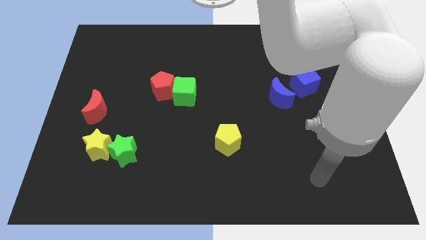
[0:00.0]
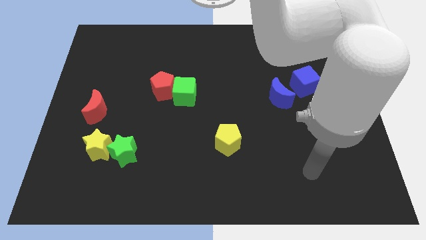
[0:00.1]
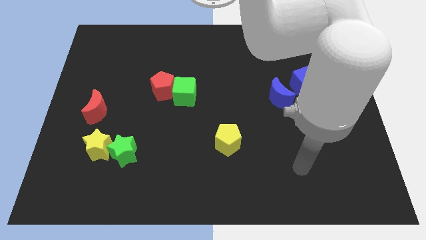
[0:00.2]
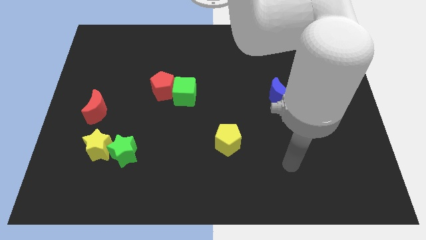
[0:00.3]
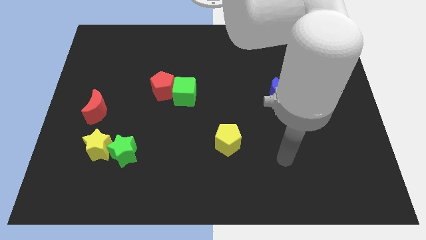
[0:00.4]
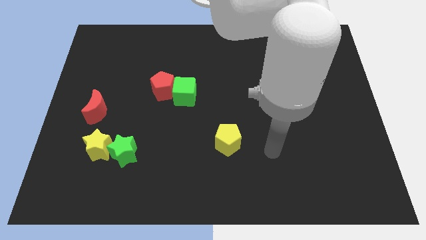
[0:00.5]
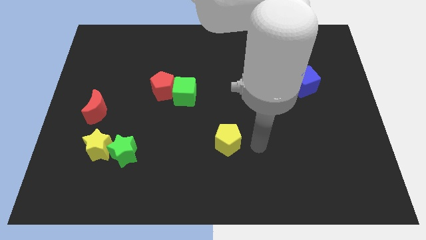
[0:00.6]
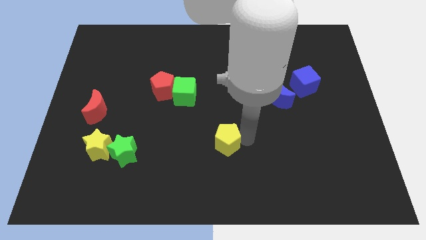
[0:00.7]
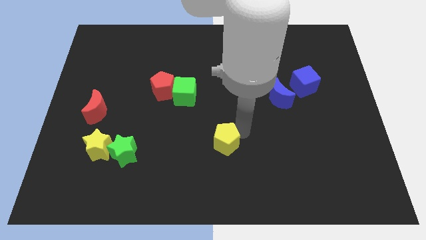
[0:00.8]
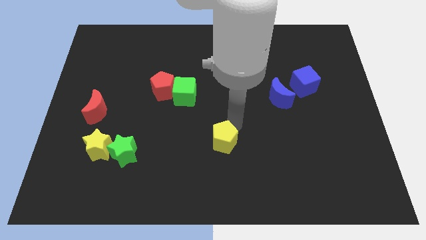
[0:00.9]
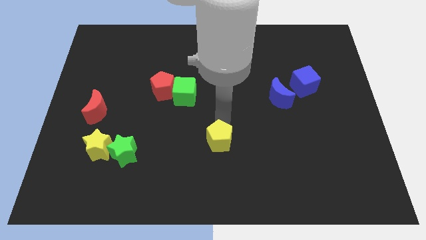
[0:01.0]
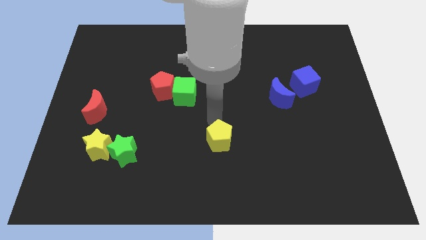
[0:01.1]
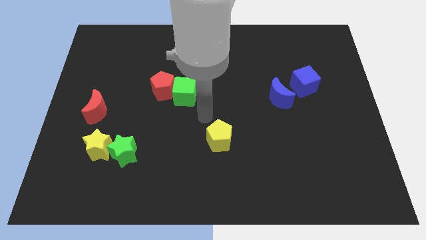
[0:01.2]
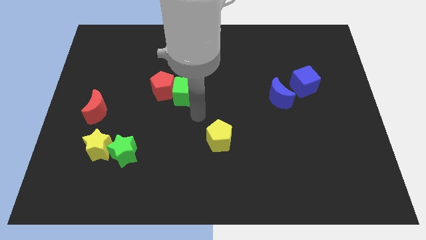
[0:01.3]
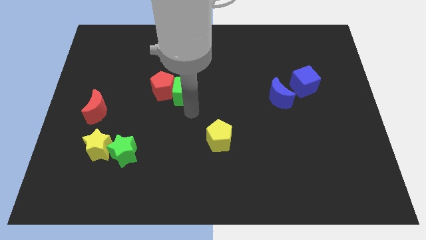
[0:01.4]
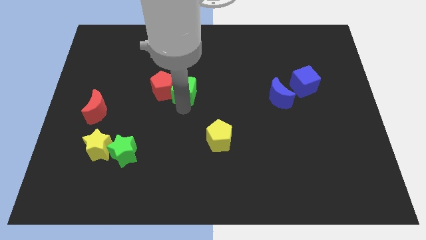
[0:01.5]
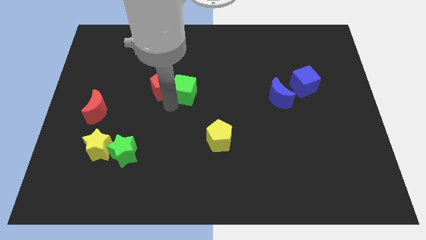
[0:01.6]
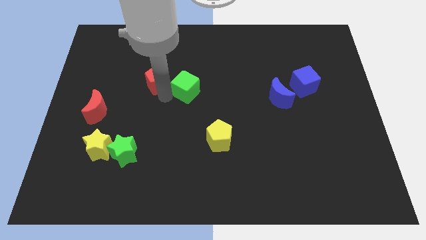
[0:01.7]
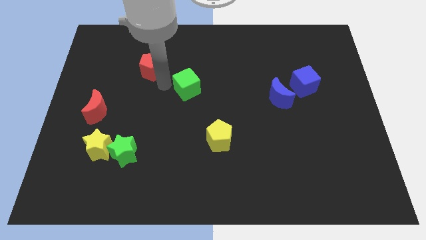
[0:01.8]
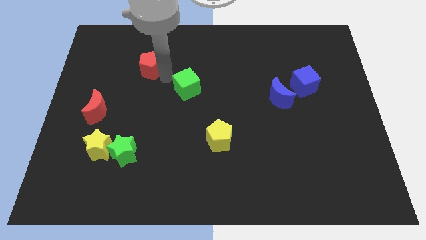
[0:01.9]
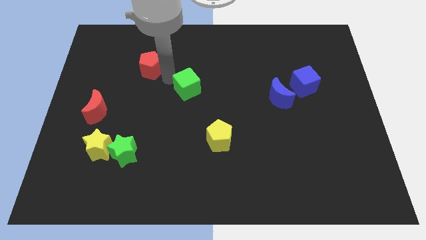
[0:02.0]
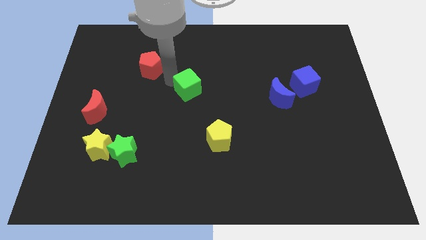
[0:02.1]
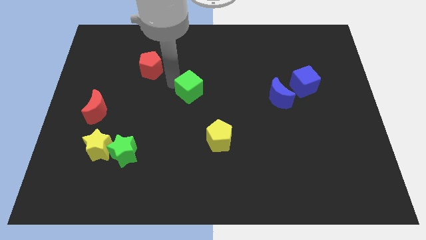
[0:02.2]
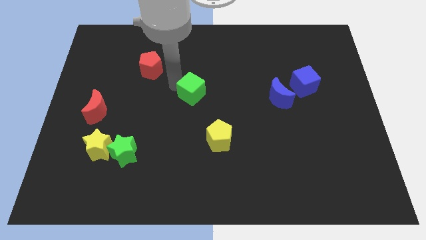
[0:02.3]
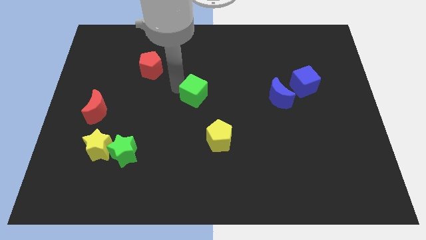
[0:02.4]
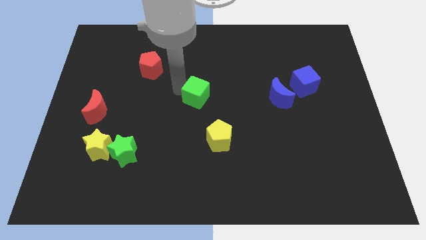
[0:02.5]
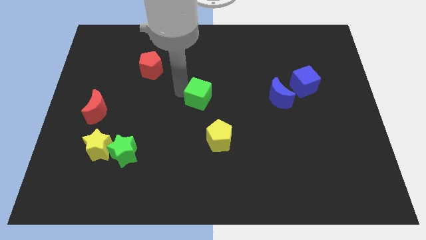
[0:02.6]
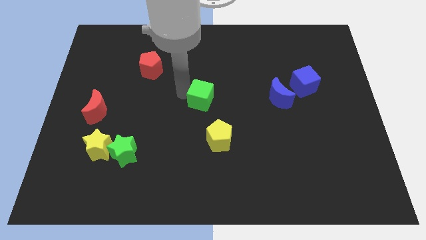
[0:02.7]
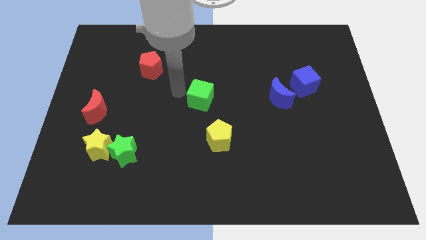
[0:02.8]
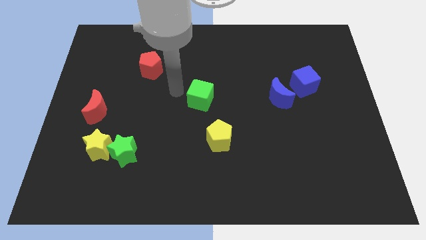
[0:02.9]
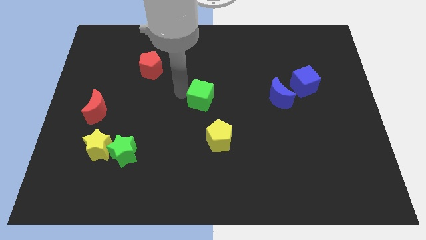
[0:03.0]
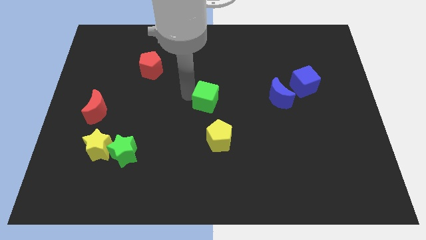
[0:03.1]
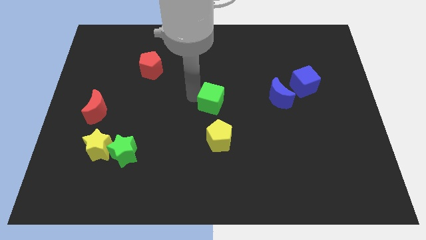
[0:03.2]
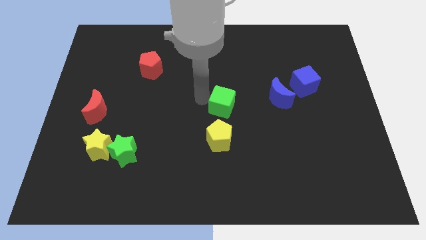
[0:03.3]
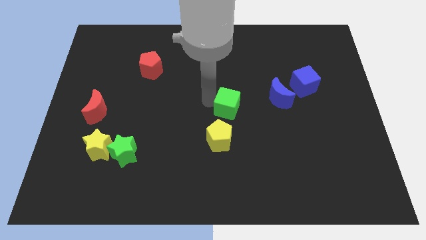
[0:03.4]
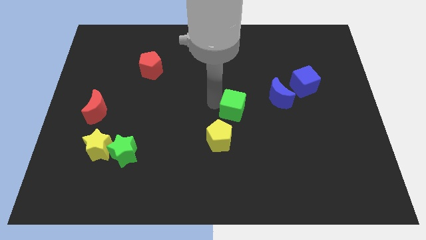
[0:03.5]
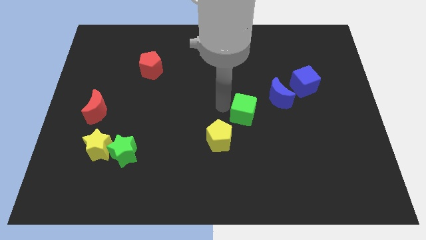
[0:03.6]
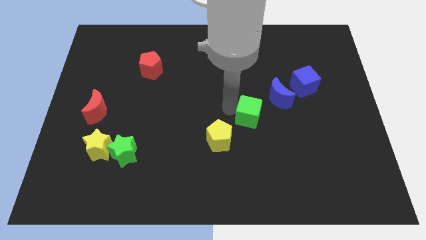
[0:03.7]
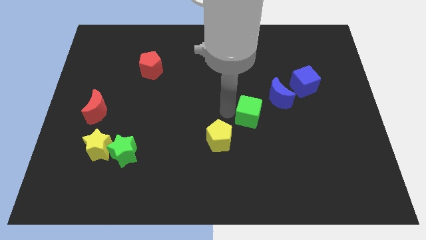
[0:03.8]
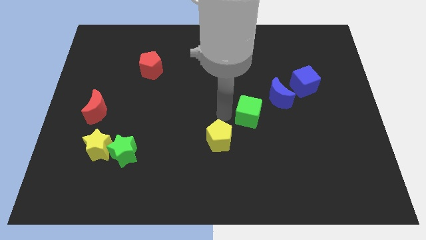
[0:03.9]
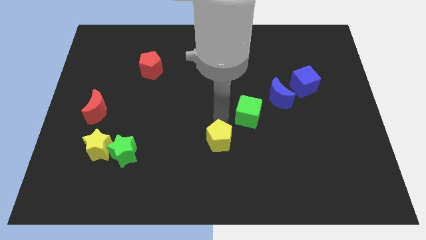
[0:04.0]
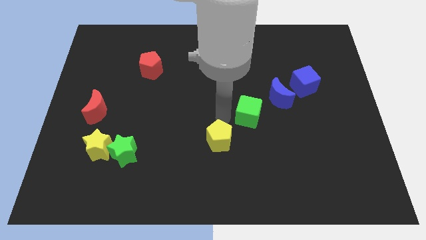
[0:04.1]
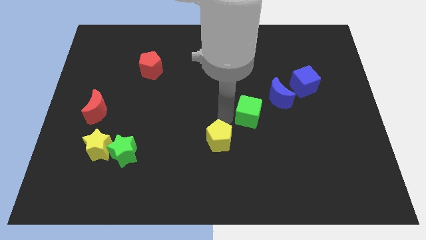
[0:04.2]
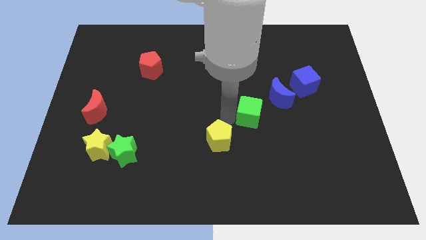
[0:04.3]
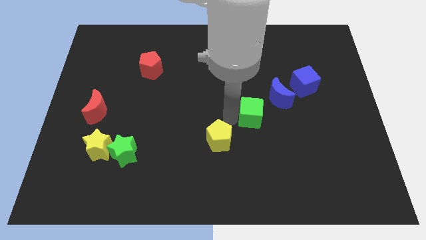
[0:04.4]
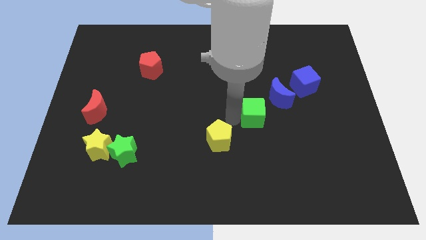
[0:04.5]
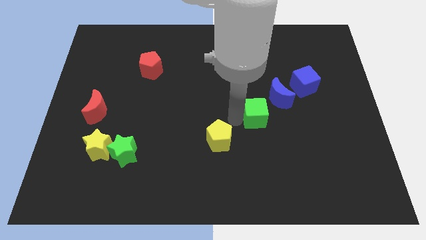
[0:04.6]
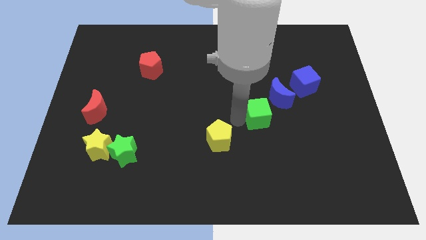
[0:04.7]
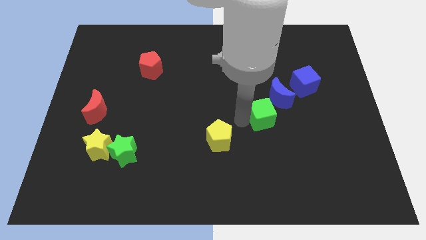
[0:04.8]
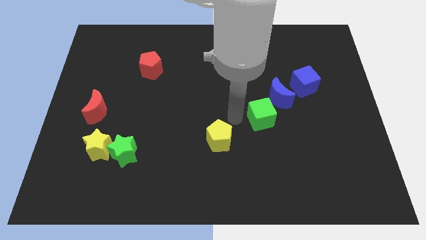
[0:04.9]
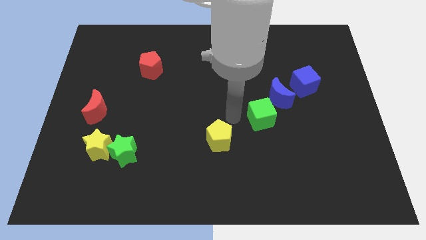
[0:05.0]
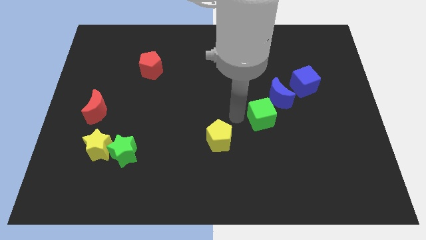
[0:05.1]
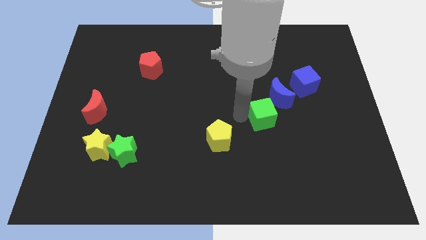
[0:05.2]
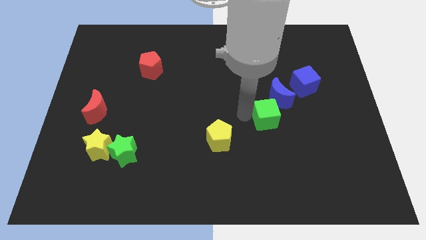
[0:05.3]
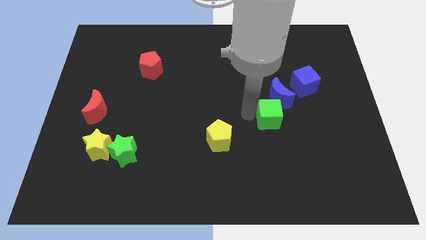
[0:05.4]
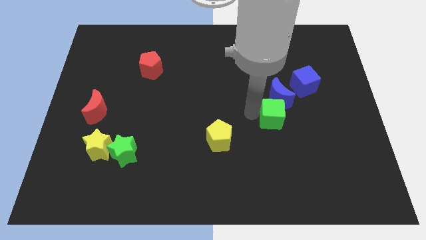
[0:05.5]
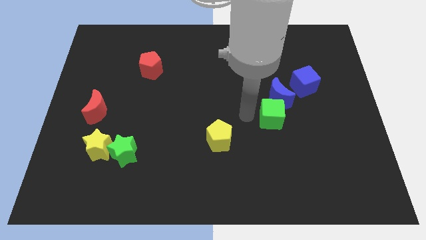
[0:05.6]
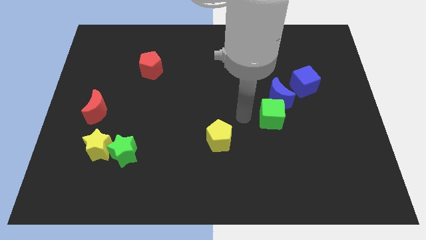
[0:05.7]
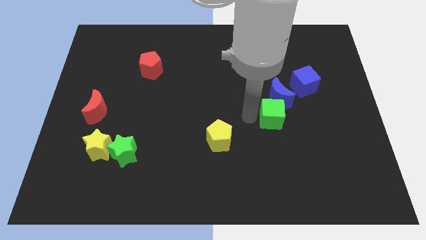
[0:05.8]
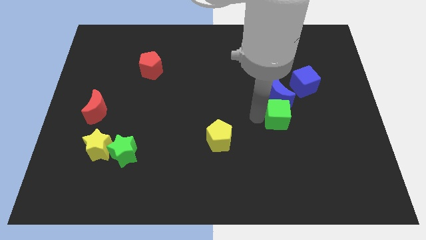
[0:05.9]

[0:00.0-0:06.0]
push the green cube right

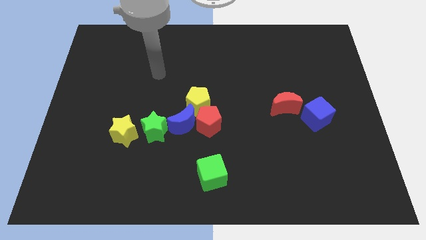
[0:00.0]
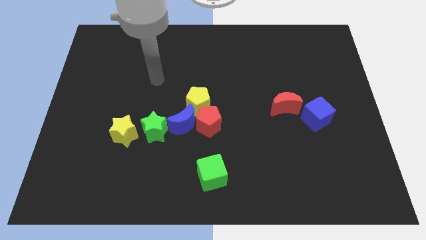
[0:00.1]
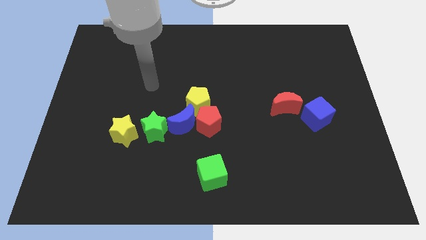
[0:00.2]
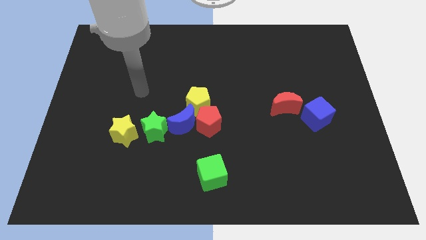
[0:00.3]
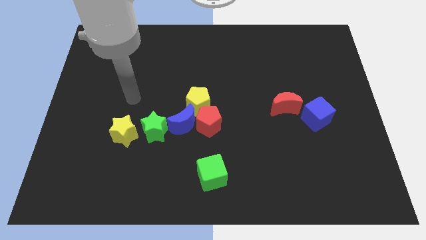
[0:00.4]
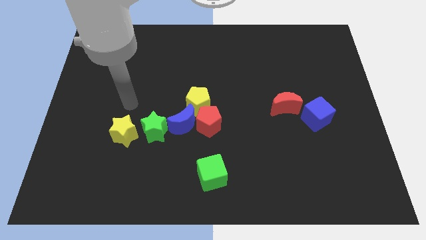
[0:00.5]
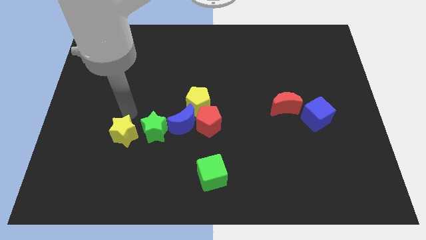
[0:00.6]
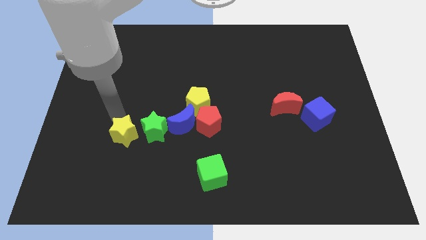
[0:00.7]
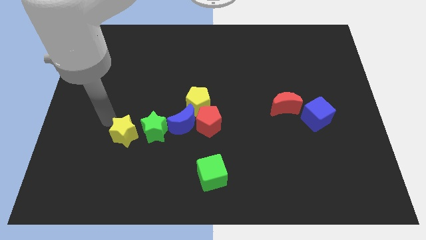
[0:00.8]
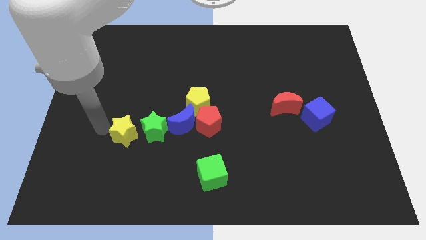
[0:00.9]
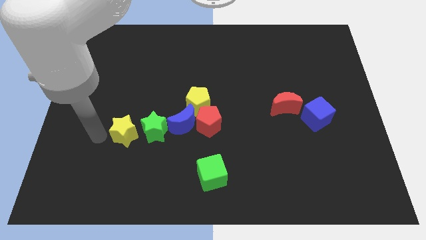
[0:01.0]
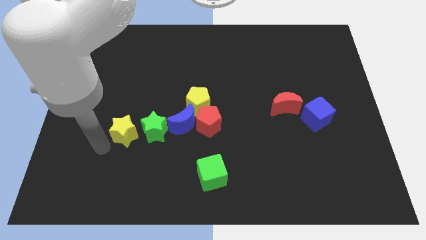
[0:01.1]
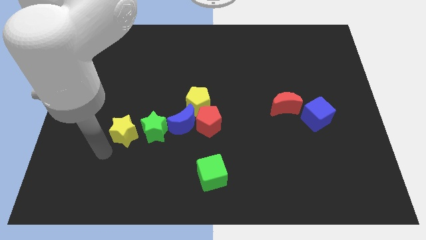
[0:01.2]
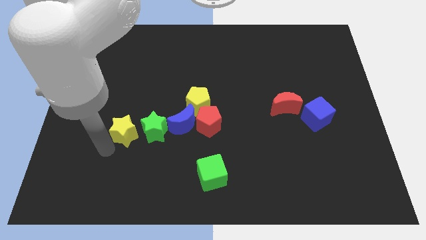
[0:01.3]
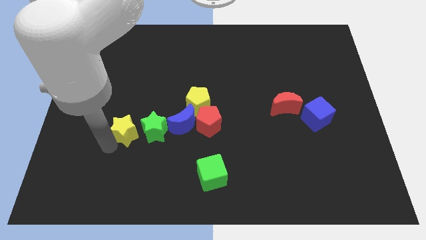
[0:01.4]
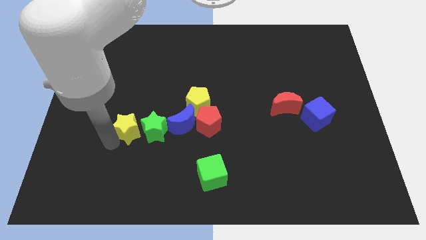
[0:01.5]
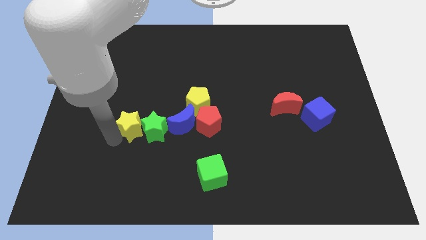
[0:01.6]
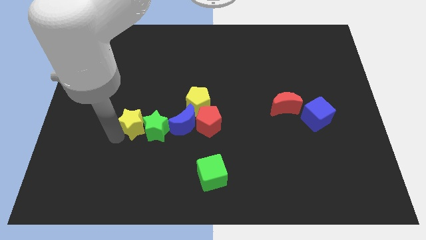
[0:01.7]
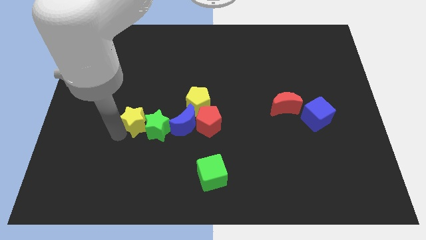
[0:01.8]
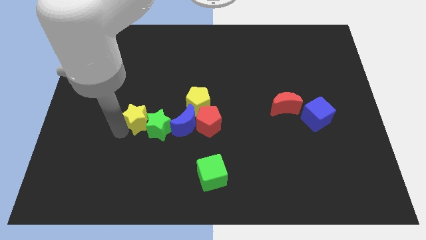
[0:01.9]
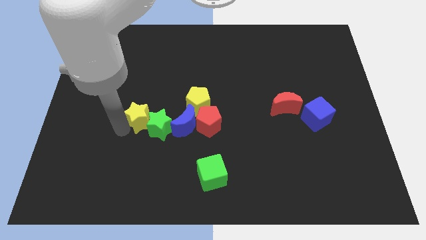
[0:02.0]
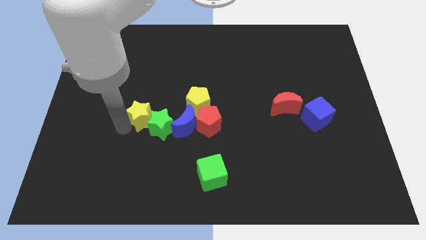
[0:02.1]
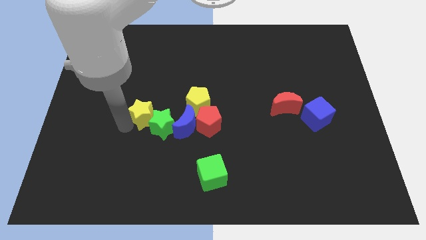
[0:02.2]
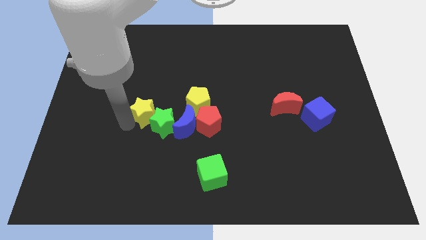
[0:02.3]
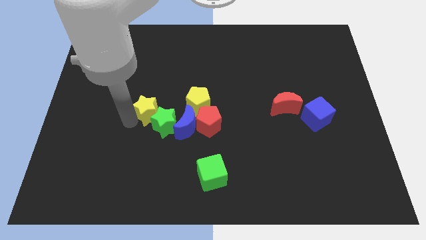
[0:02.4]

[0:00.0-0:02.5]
slightly move the yellow star diagonally upwards and right
